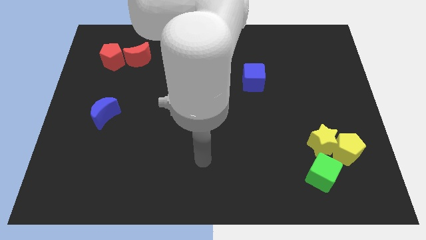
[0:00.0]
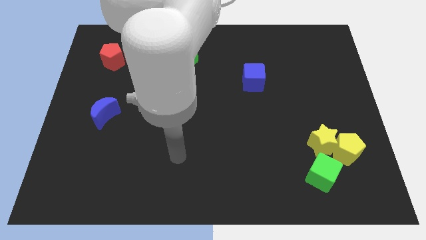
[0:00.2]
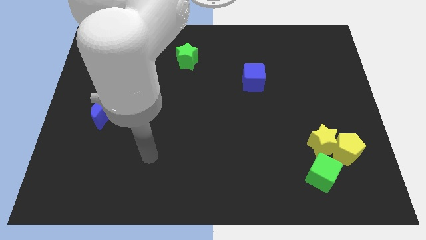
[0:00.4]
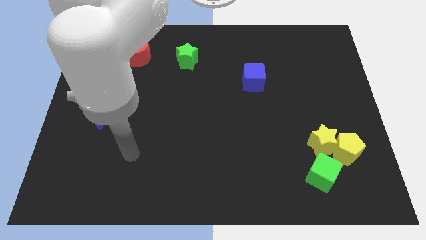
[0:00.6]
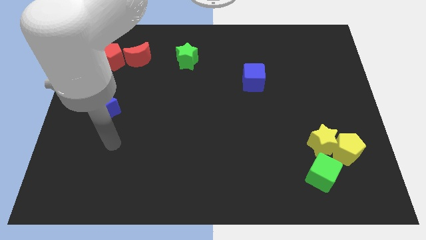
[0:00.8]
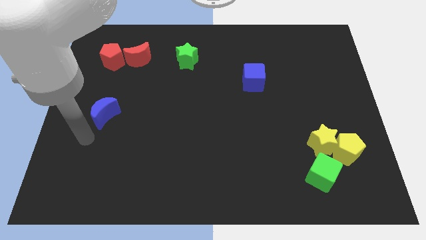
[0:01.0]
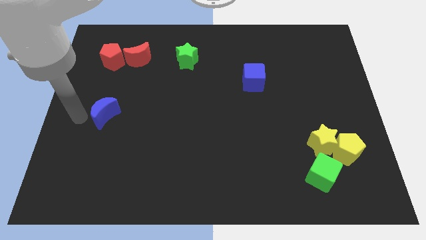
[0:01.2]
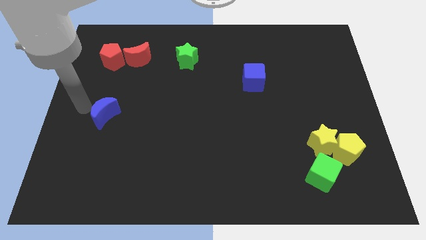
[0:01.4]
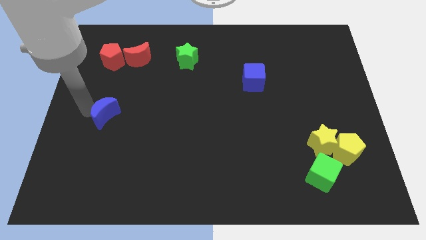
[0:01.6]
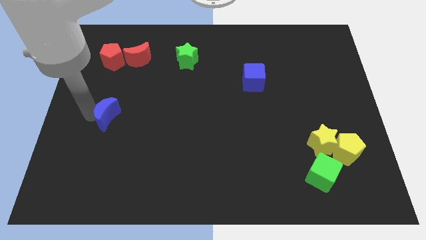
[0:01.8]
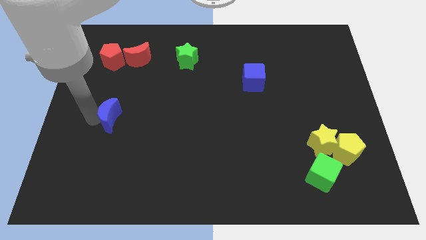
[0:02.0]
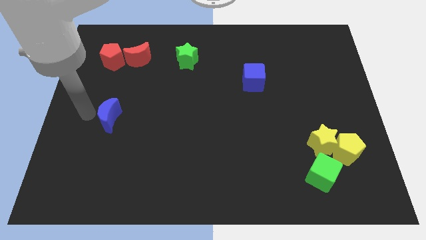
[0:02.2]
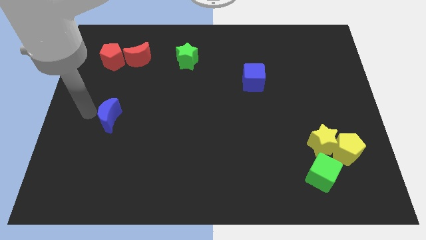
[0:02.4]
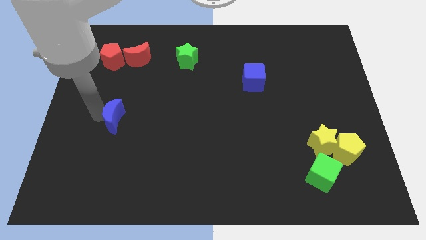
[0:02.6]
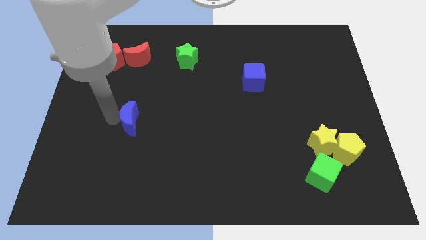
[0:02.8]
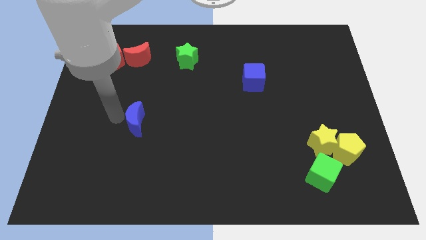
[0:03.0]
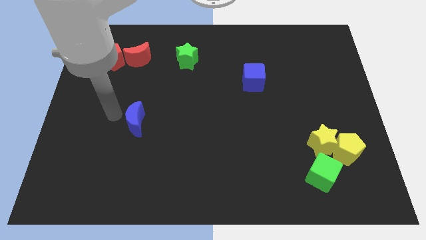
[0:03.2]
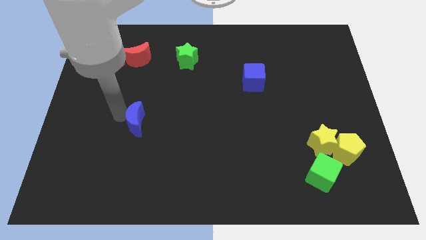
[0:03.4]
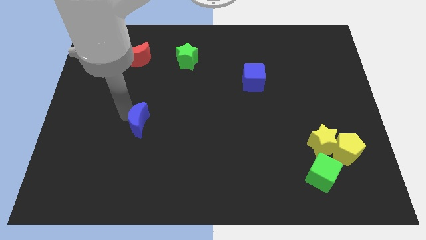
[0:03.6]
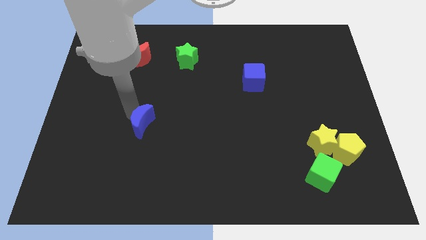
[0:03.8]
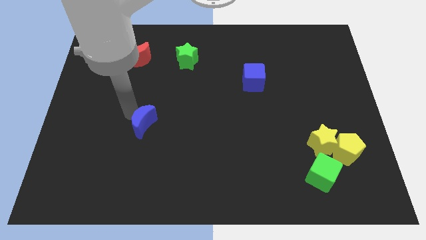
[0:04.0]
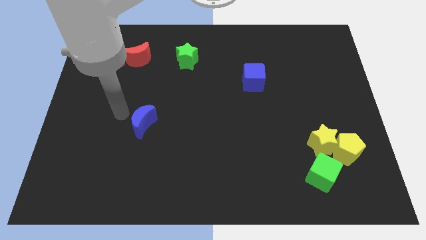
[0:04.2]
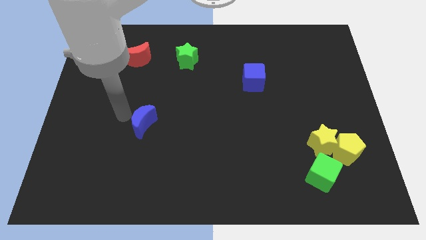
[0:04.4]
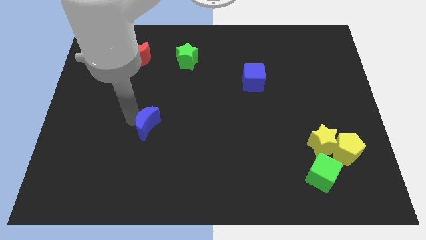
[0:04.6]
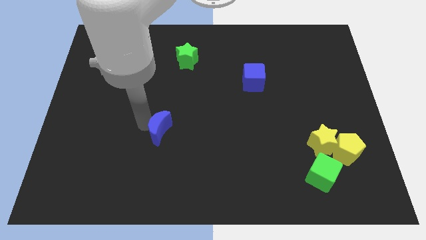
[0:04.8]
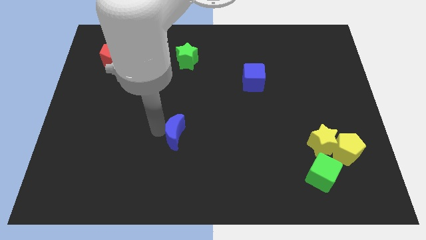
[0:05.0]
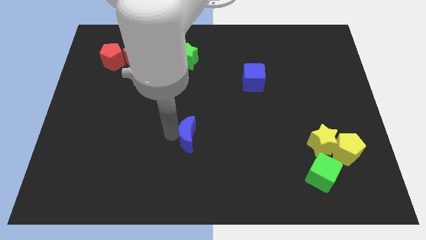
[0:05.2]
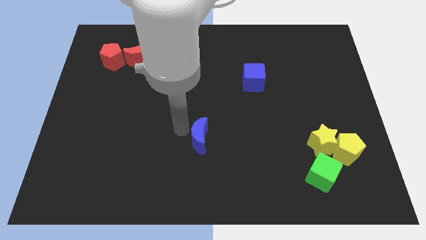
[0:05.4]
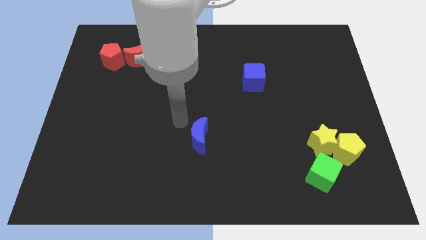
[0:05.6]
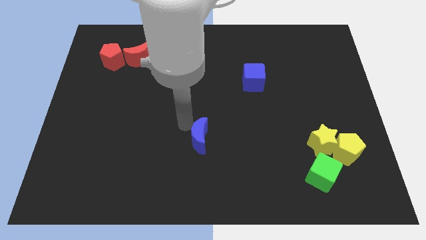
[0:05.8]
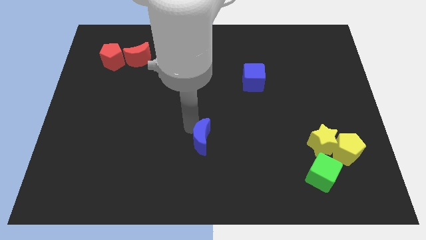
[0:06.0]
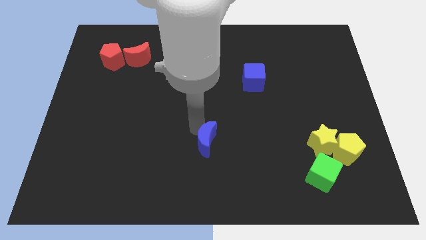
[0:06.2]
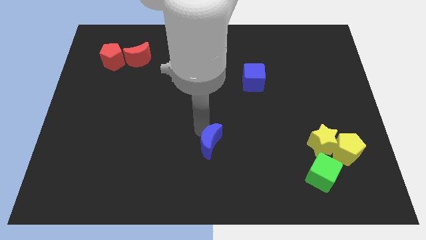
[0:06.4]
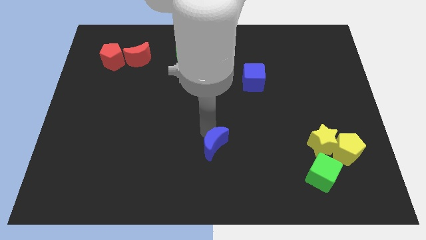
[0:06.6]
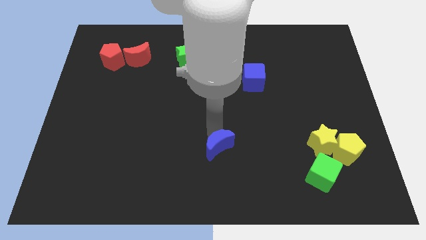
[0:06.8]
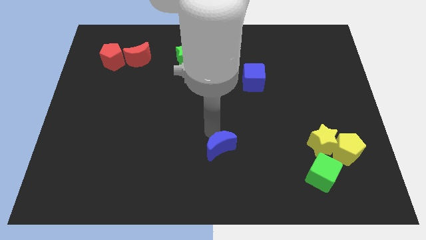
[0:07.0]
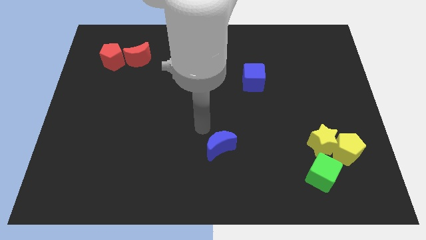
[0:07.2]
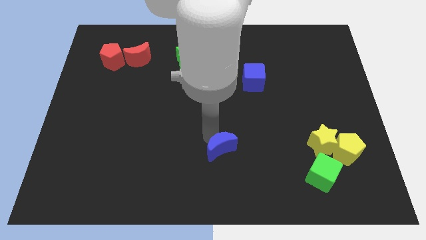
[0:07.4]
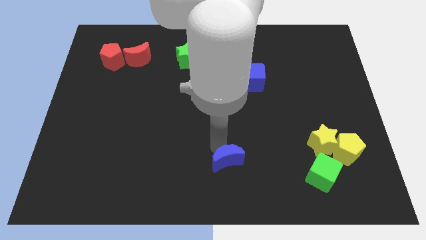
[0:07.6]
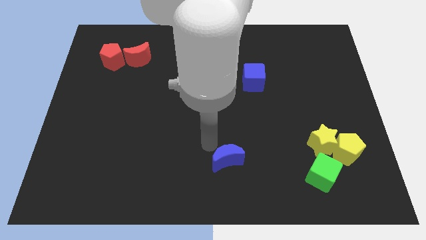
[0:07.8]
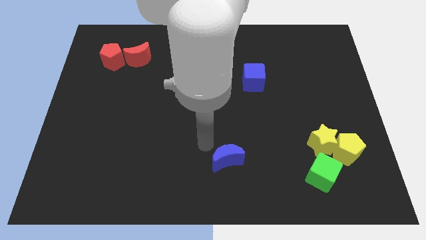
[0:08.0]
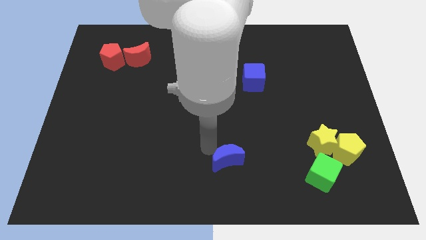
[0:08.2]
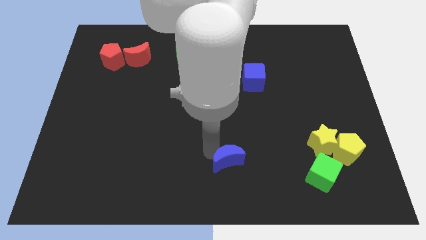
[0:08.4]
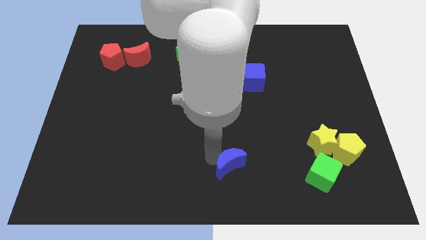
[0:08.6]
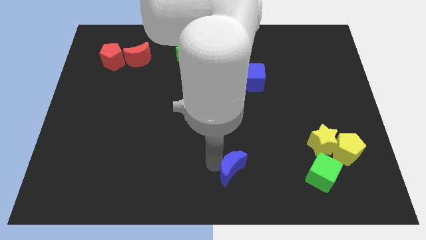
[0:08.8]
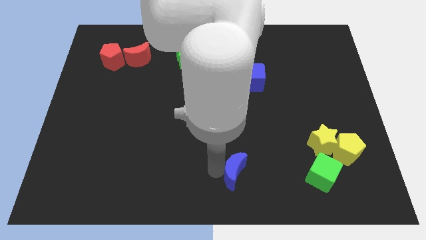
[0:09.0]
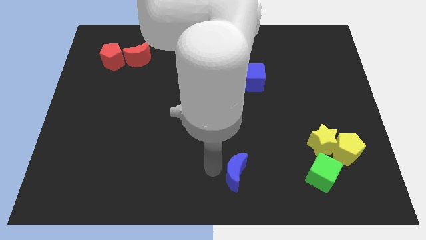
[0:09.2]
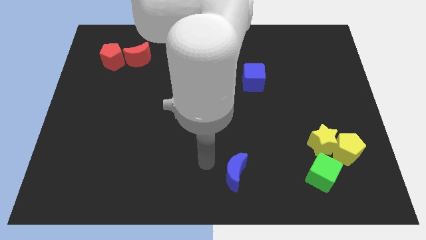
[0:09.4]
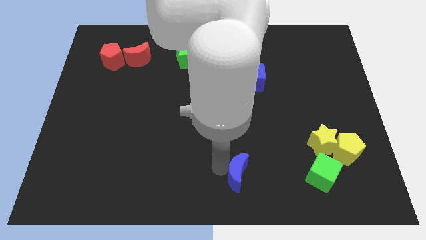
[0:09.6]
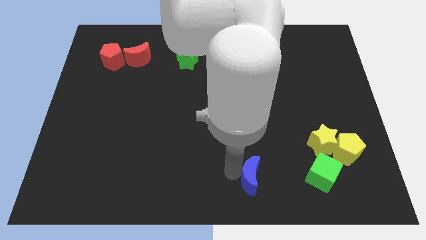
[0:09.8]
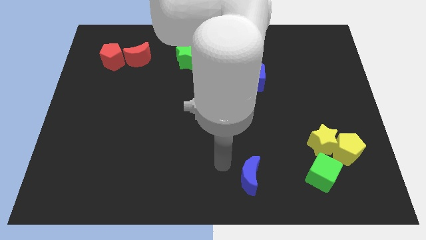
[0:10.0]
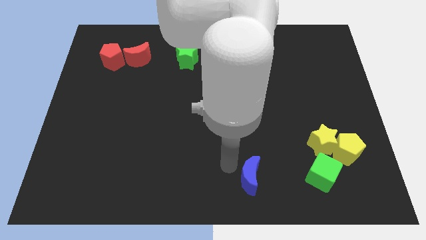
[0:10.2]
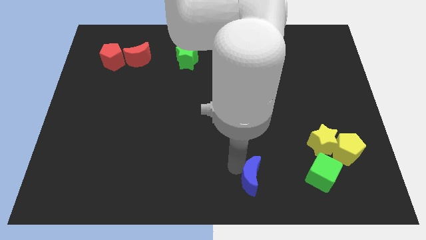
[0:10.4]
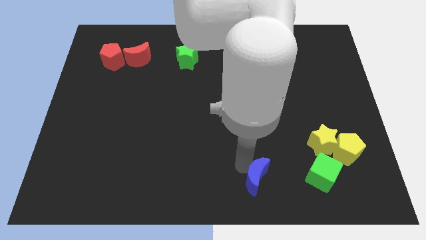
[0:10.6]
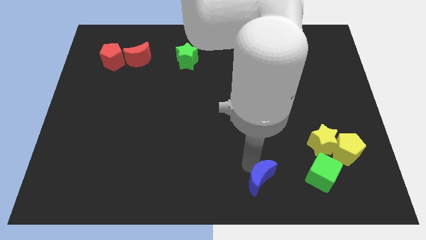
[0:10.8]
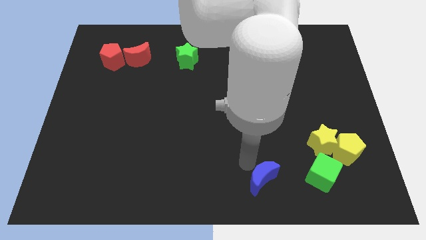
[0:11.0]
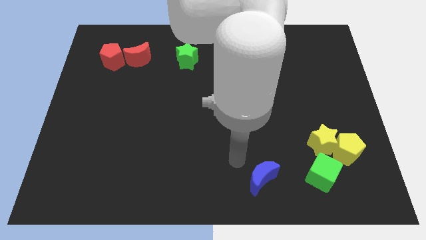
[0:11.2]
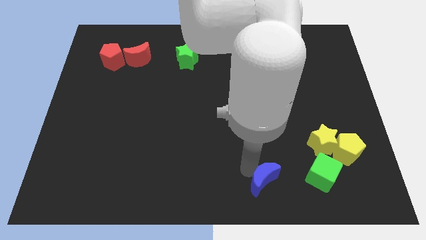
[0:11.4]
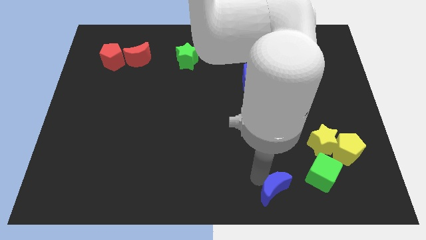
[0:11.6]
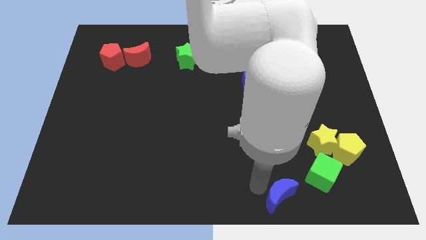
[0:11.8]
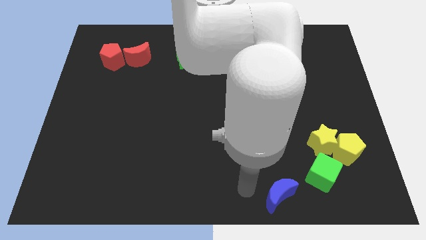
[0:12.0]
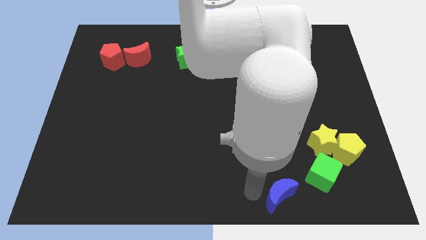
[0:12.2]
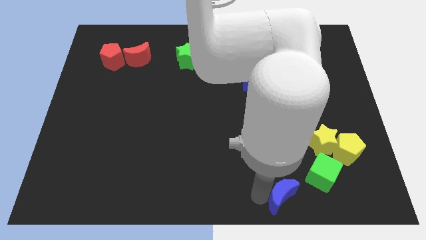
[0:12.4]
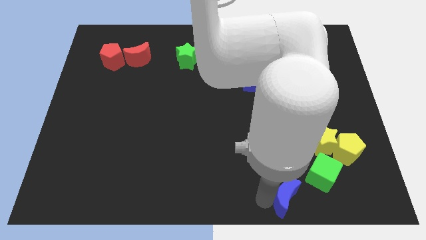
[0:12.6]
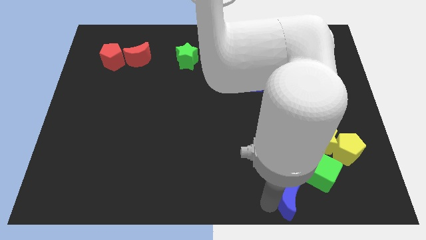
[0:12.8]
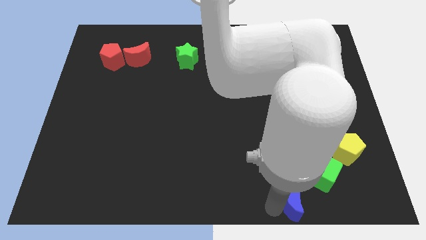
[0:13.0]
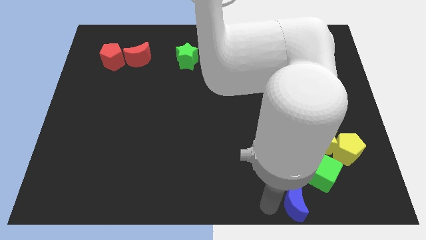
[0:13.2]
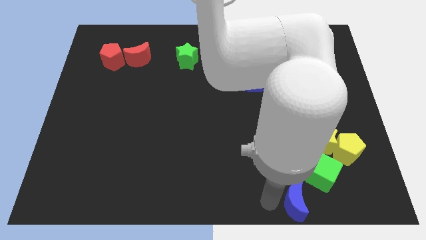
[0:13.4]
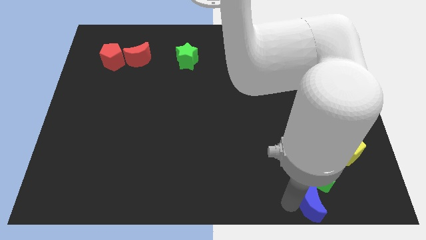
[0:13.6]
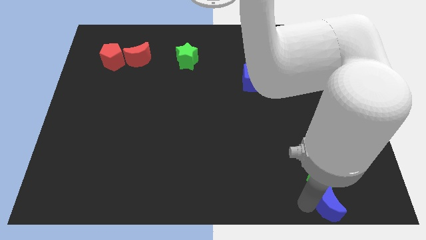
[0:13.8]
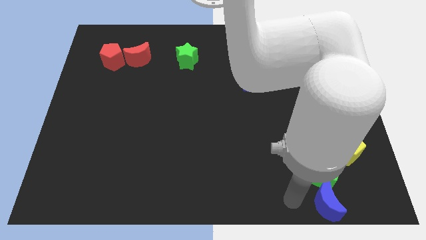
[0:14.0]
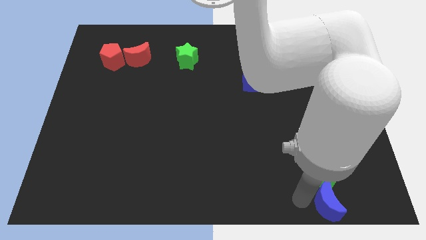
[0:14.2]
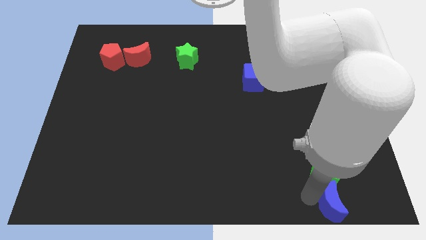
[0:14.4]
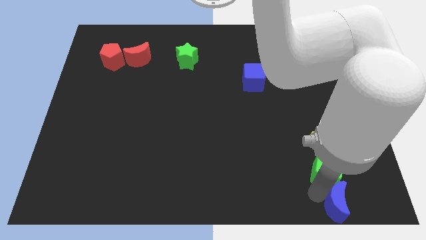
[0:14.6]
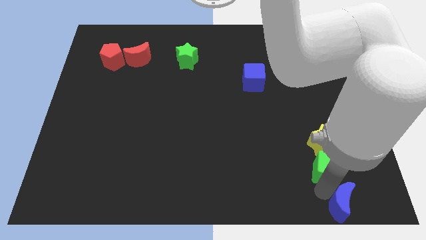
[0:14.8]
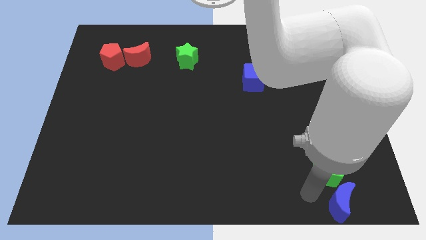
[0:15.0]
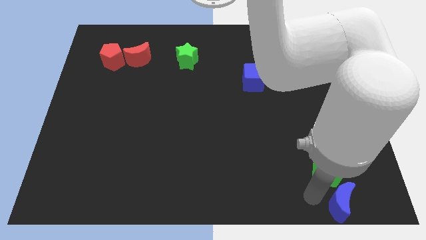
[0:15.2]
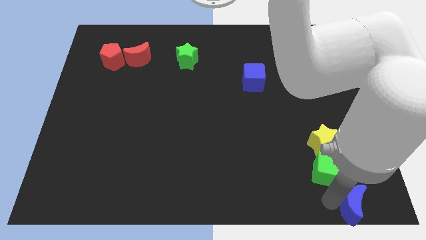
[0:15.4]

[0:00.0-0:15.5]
push the blue moon to the bottom right corner
